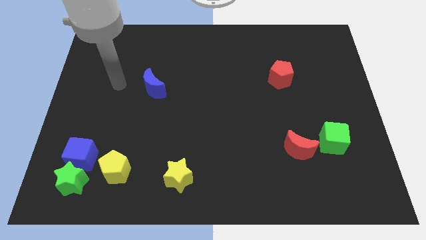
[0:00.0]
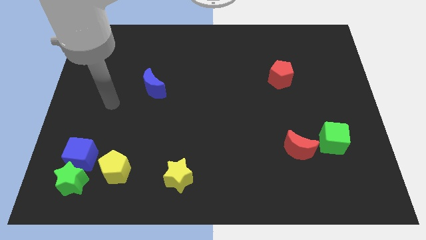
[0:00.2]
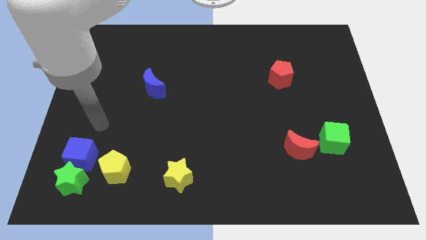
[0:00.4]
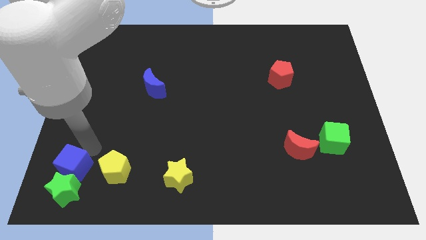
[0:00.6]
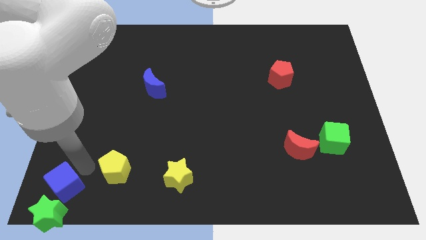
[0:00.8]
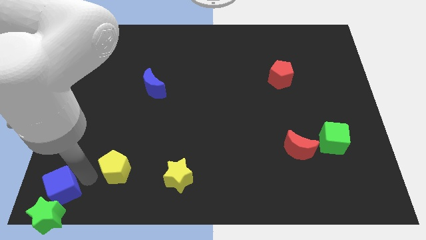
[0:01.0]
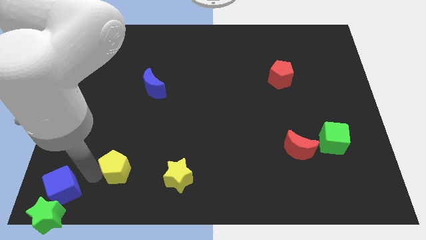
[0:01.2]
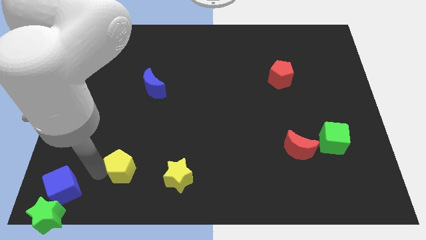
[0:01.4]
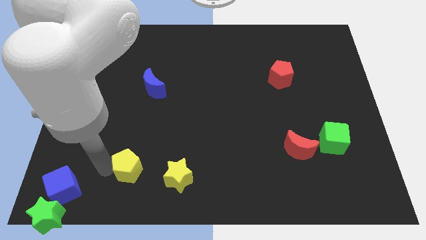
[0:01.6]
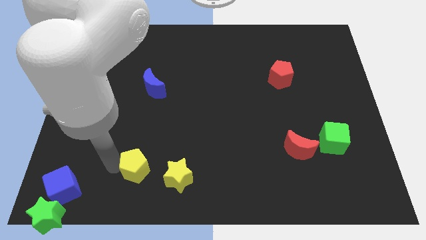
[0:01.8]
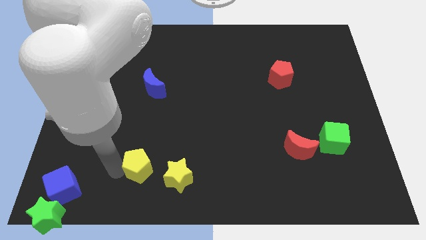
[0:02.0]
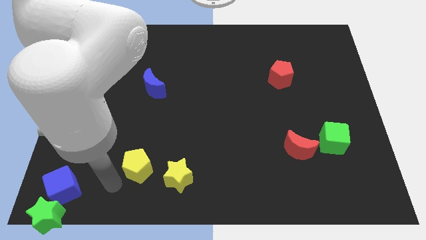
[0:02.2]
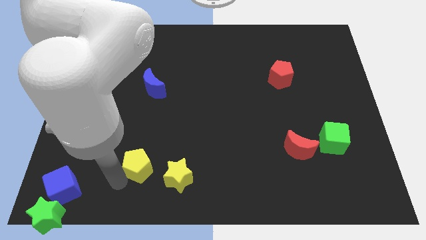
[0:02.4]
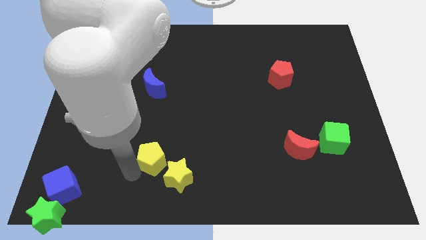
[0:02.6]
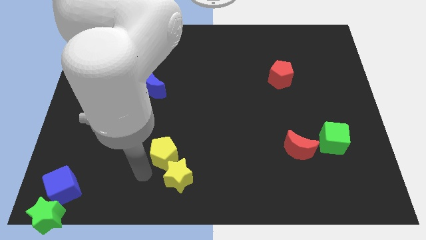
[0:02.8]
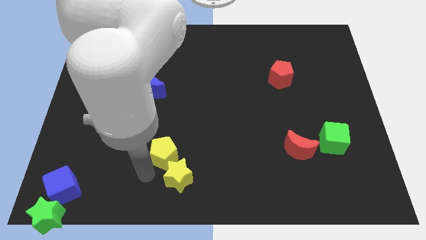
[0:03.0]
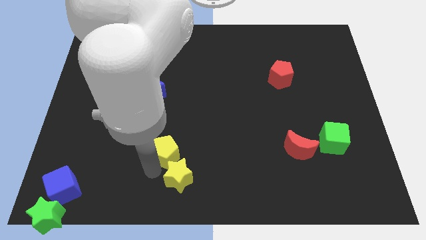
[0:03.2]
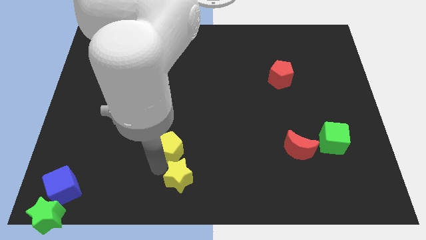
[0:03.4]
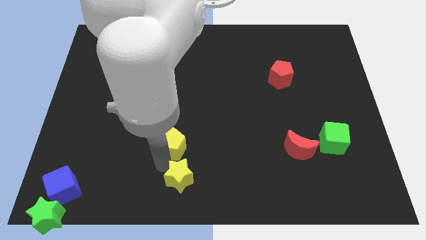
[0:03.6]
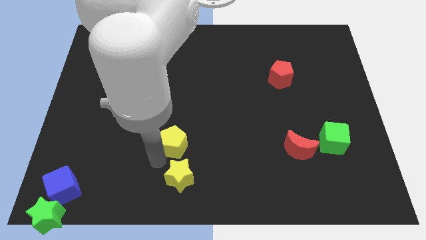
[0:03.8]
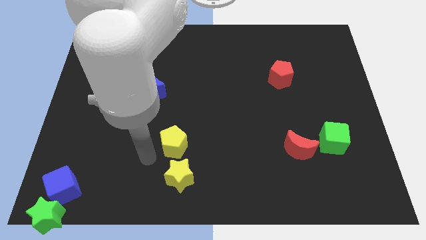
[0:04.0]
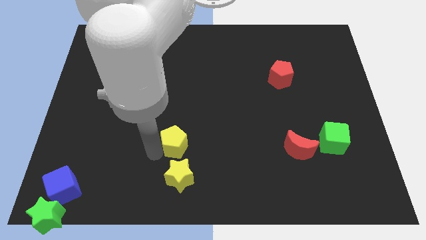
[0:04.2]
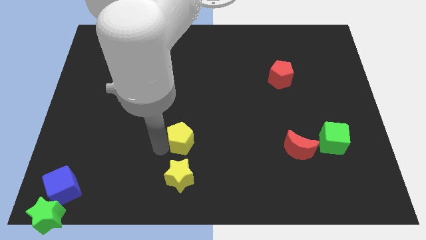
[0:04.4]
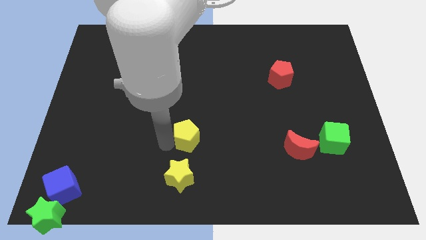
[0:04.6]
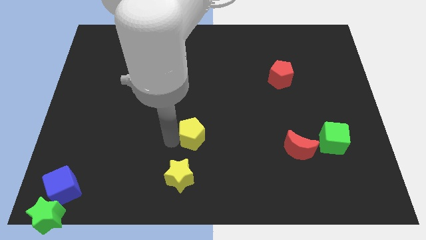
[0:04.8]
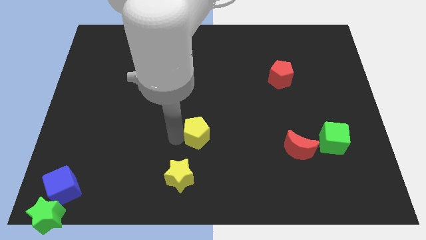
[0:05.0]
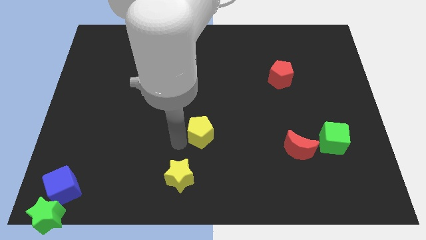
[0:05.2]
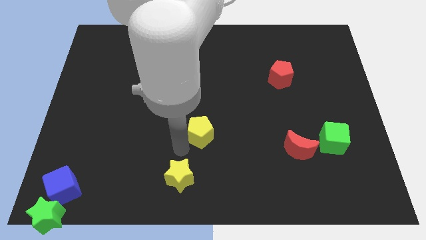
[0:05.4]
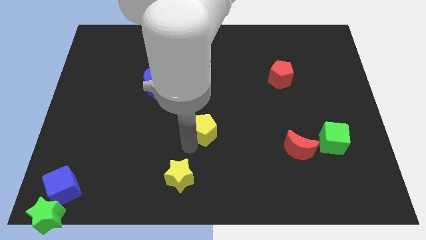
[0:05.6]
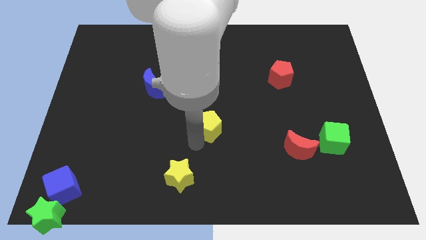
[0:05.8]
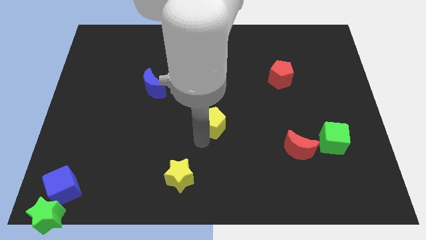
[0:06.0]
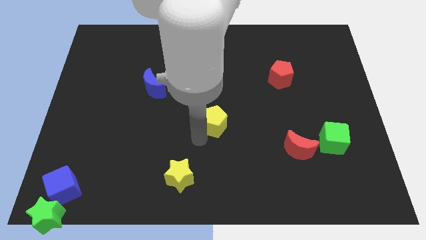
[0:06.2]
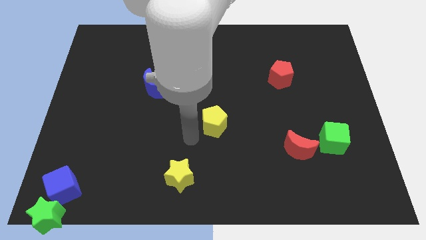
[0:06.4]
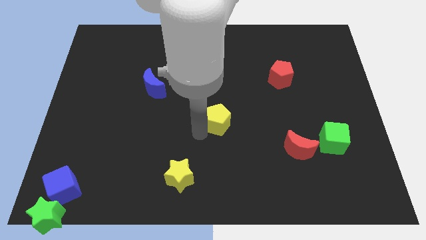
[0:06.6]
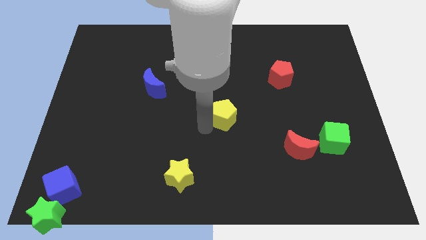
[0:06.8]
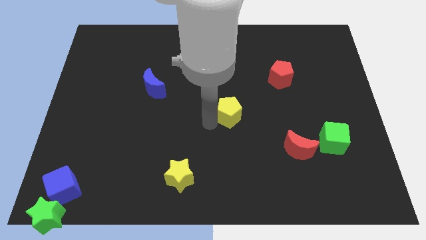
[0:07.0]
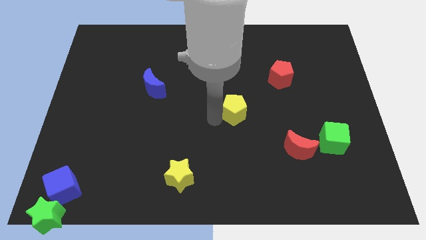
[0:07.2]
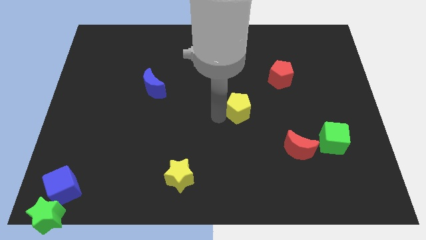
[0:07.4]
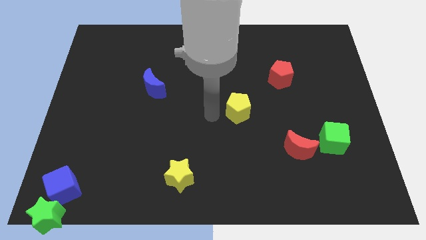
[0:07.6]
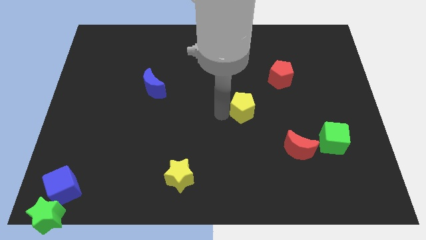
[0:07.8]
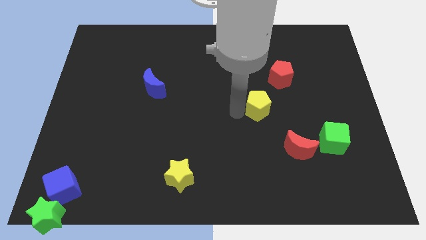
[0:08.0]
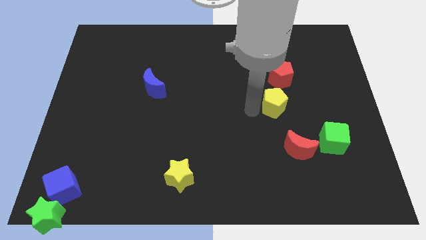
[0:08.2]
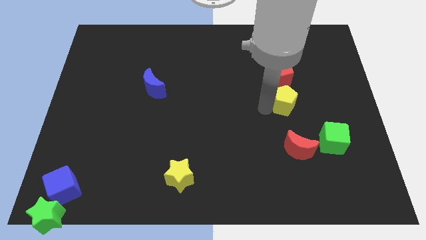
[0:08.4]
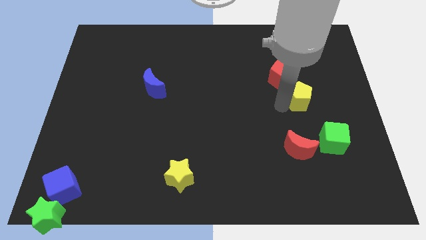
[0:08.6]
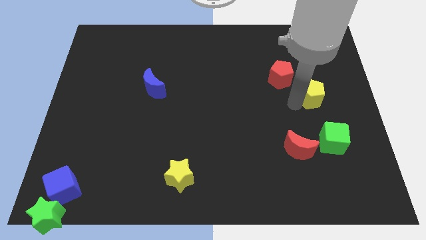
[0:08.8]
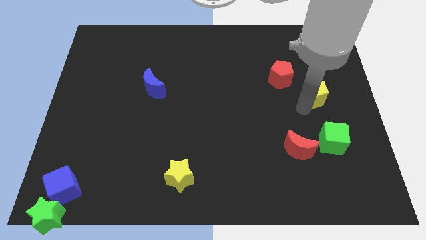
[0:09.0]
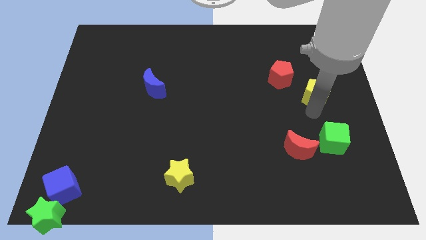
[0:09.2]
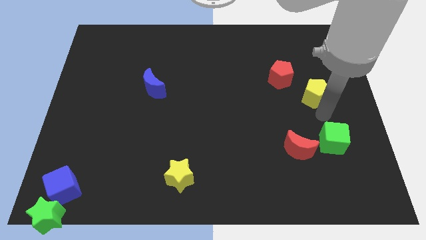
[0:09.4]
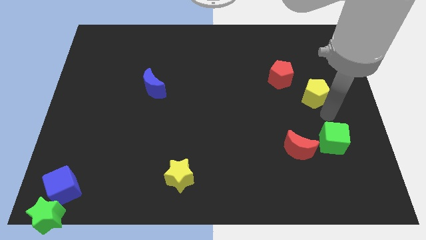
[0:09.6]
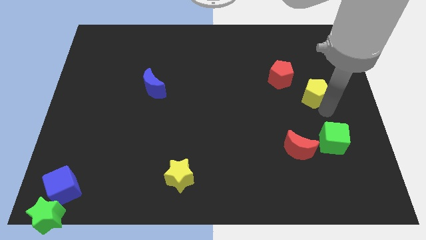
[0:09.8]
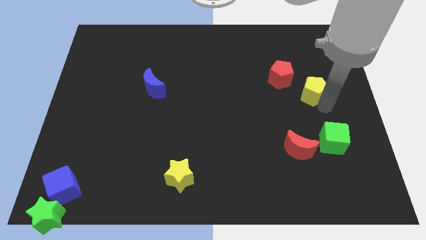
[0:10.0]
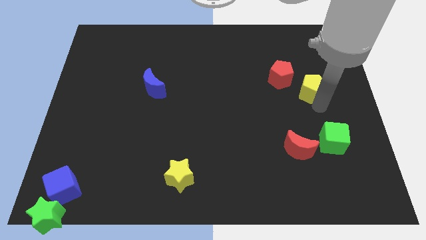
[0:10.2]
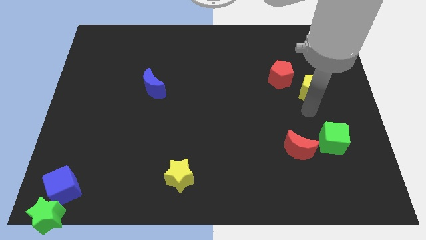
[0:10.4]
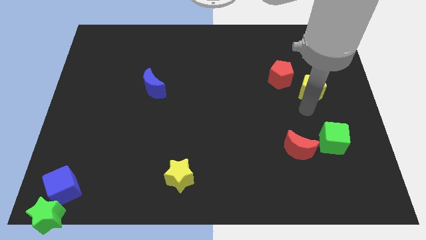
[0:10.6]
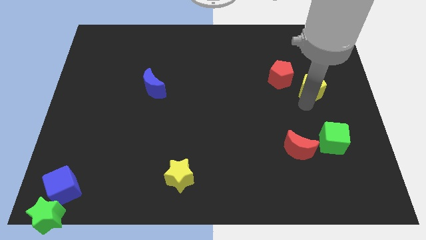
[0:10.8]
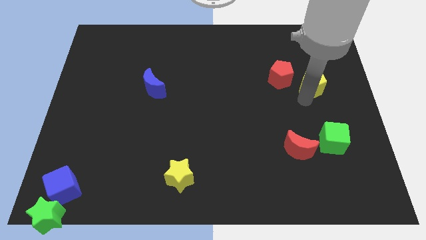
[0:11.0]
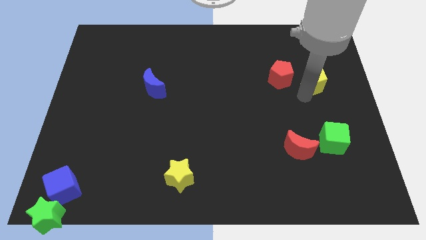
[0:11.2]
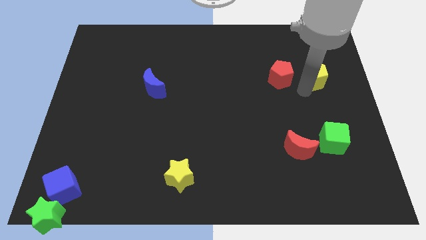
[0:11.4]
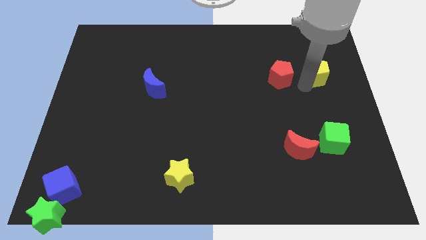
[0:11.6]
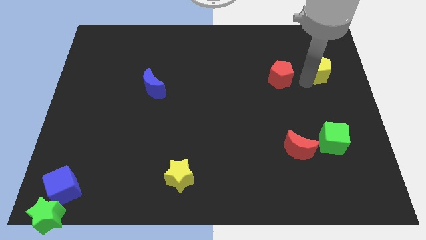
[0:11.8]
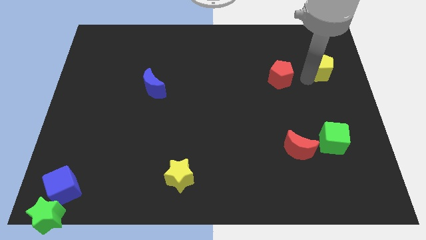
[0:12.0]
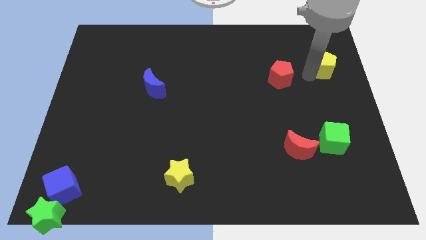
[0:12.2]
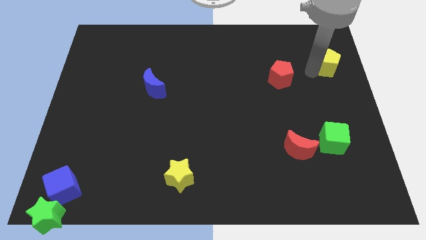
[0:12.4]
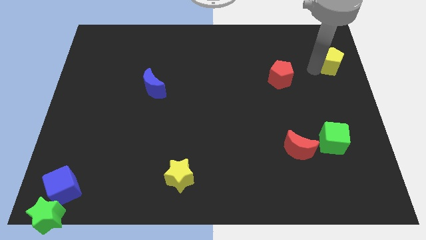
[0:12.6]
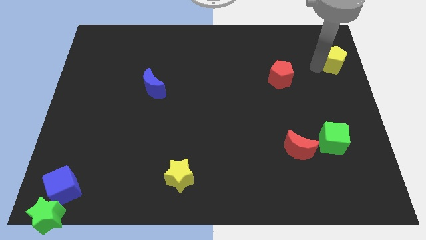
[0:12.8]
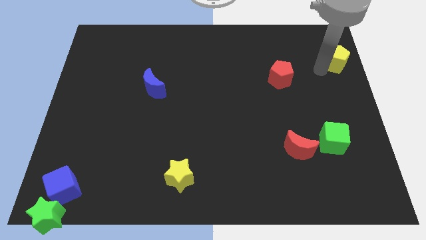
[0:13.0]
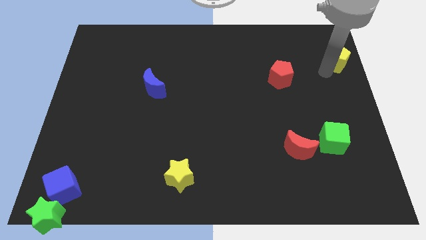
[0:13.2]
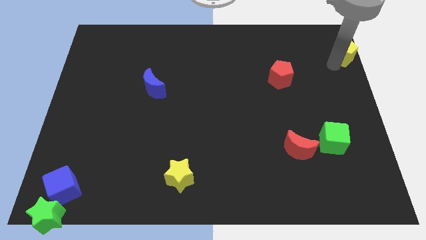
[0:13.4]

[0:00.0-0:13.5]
move the yellow pentagon to the top right corner

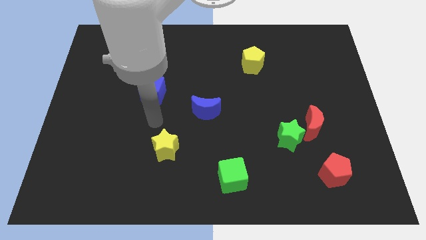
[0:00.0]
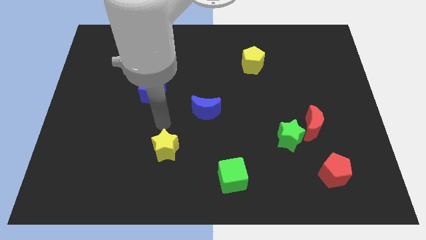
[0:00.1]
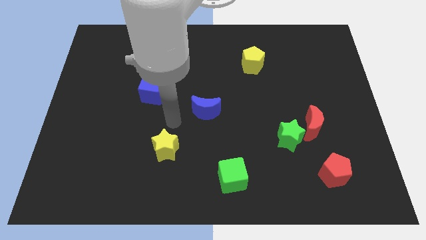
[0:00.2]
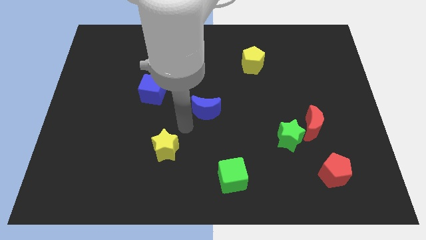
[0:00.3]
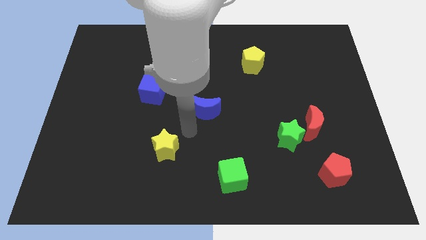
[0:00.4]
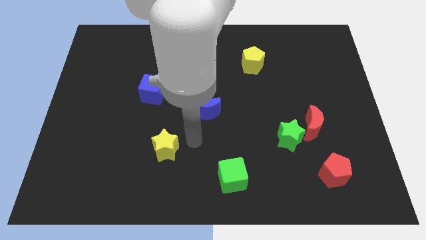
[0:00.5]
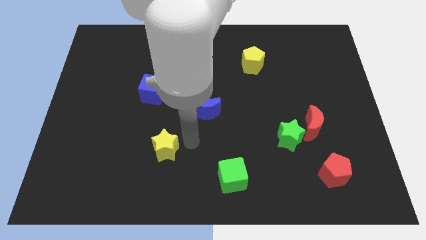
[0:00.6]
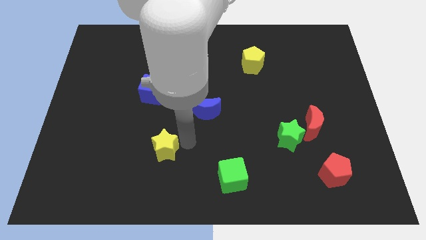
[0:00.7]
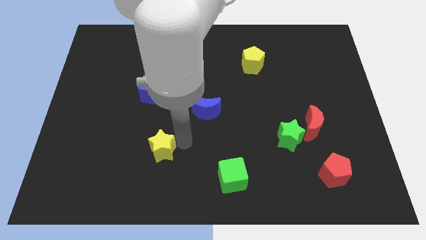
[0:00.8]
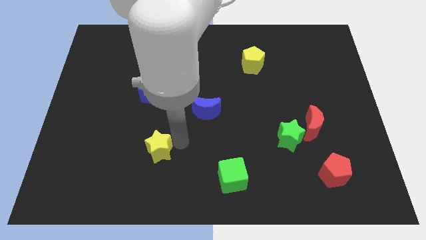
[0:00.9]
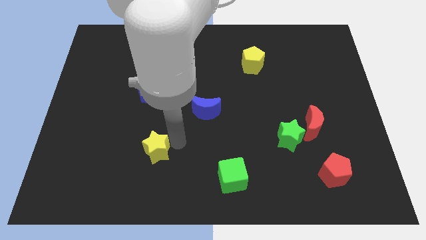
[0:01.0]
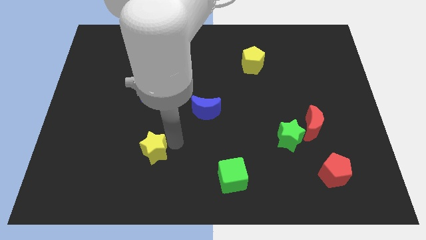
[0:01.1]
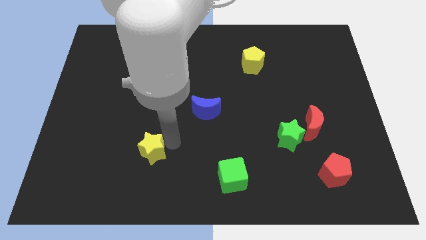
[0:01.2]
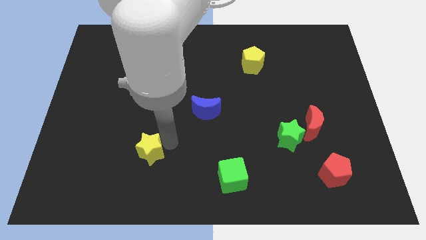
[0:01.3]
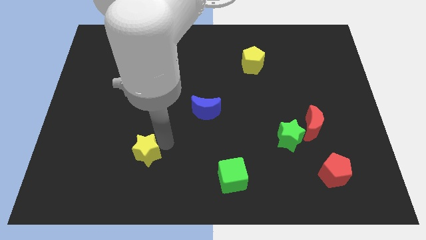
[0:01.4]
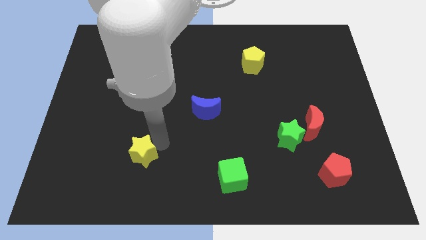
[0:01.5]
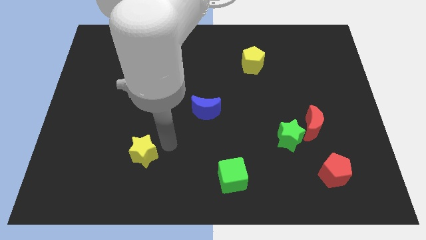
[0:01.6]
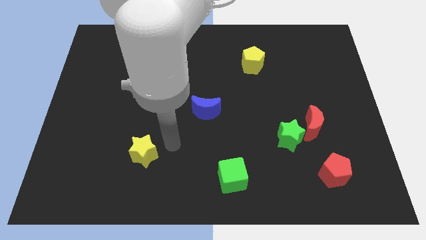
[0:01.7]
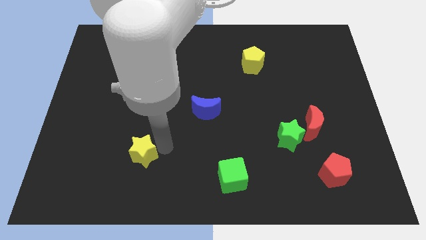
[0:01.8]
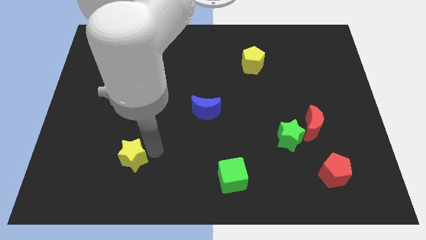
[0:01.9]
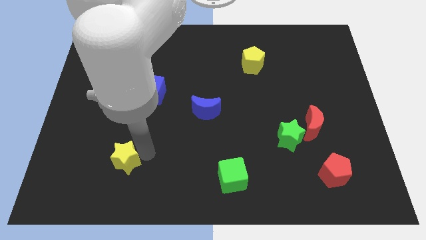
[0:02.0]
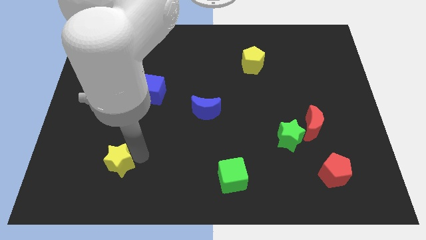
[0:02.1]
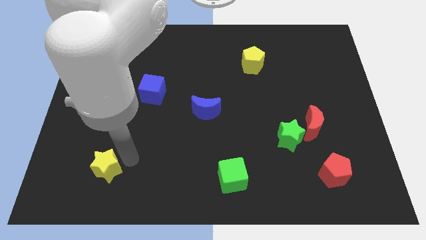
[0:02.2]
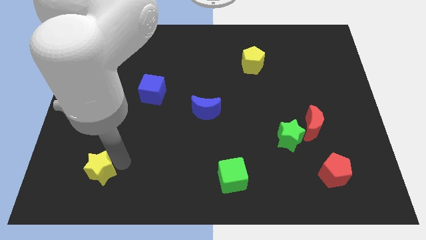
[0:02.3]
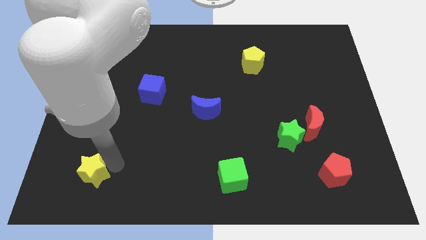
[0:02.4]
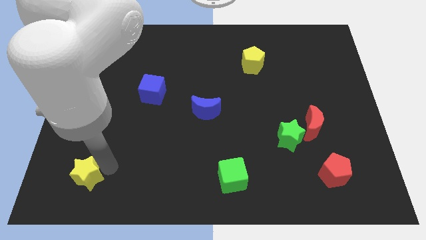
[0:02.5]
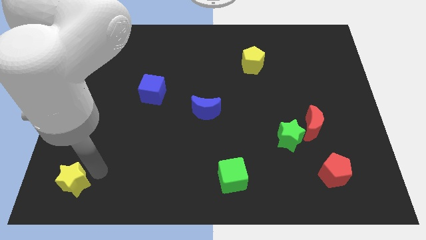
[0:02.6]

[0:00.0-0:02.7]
move the yellow star to the bottom left
